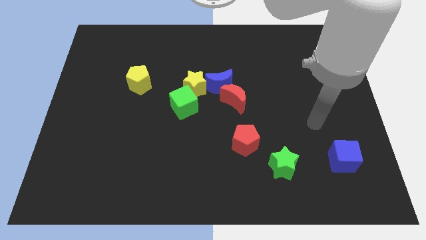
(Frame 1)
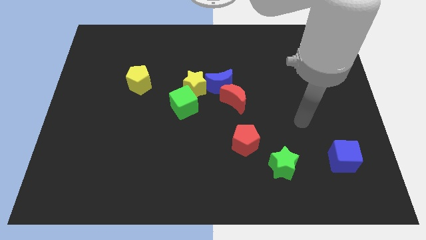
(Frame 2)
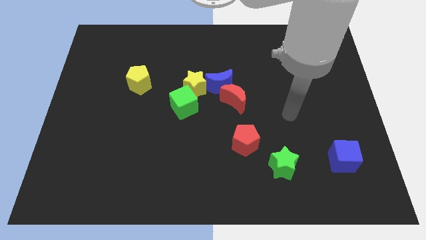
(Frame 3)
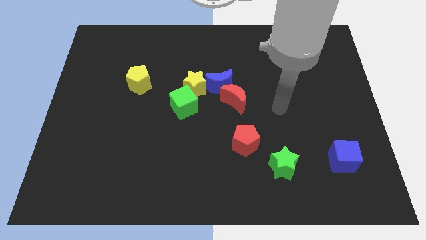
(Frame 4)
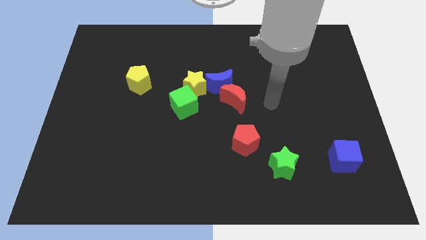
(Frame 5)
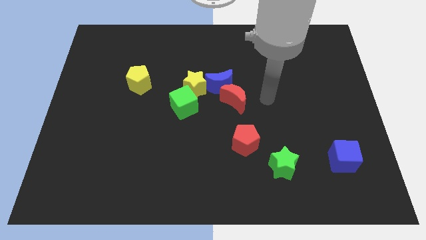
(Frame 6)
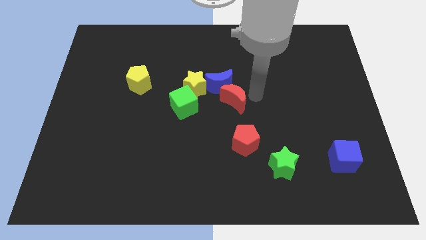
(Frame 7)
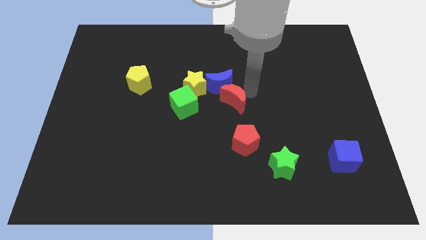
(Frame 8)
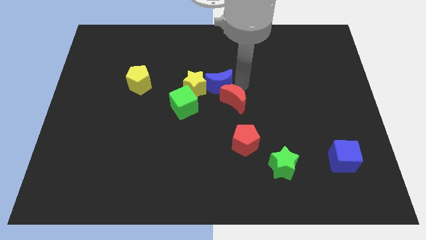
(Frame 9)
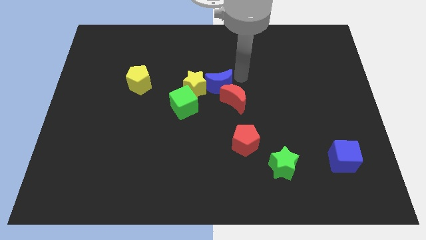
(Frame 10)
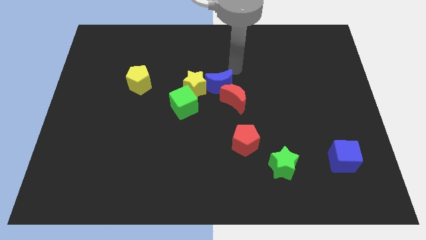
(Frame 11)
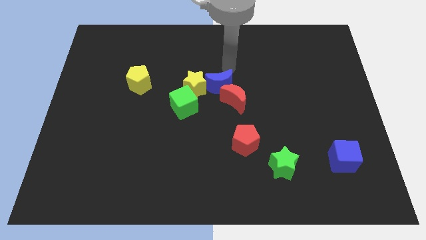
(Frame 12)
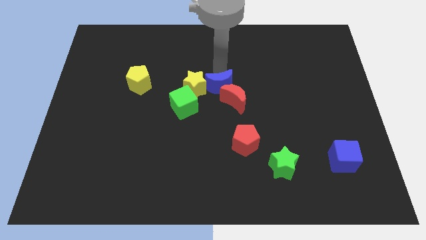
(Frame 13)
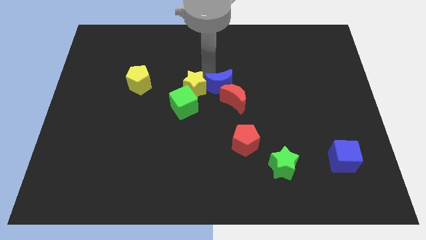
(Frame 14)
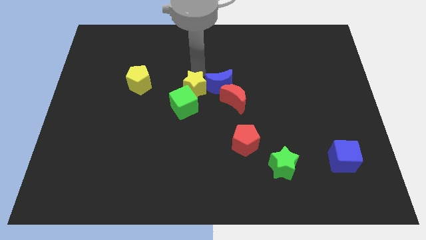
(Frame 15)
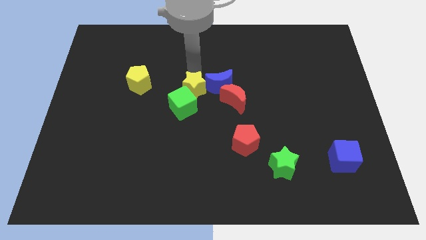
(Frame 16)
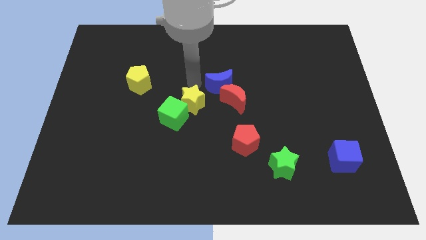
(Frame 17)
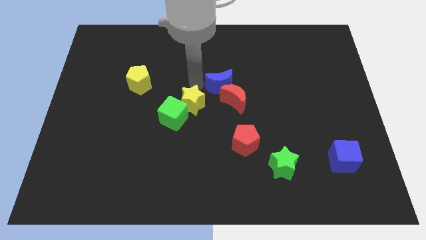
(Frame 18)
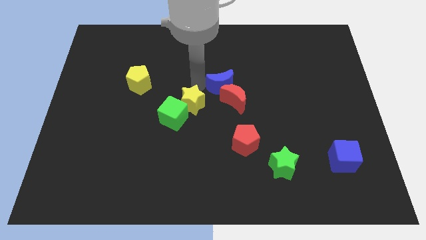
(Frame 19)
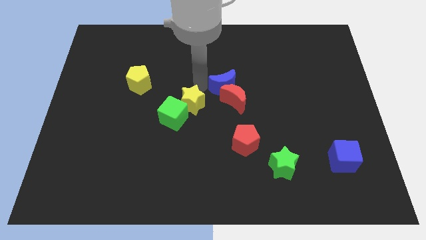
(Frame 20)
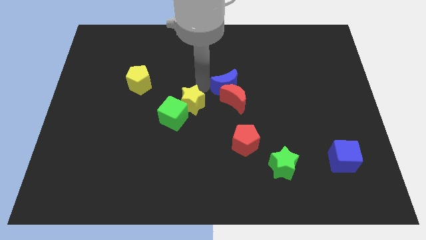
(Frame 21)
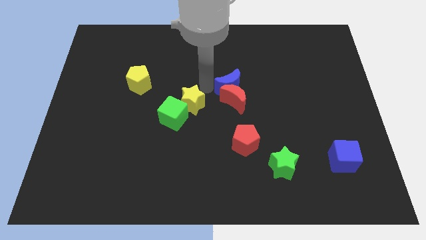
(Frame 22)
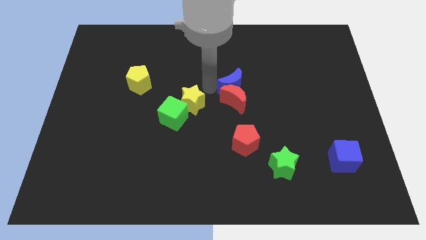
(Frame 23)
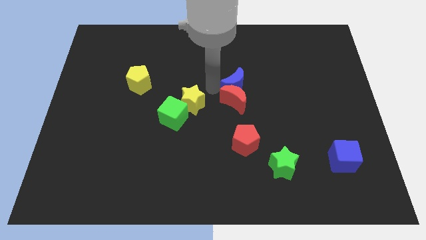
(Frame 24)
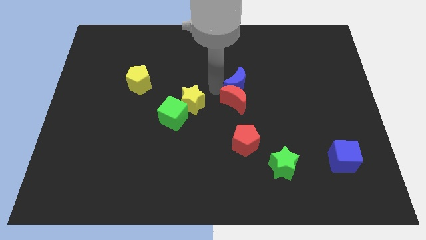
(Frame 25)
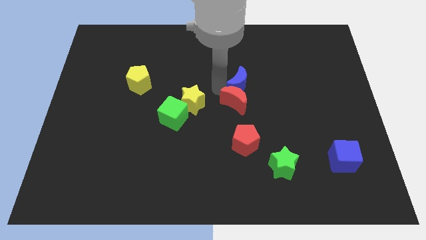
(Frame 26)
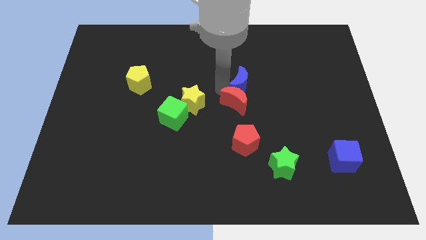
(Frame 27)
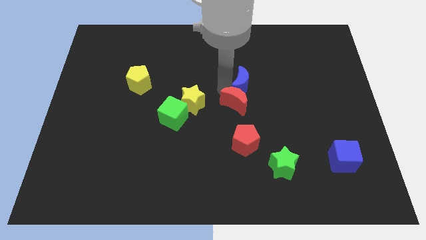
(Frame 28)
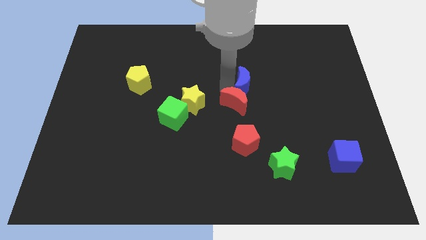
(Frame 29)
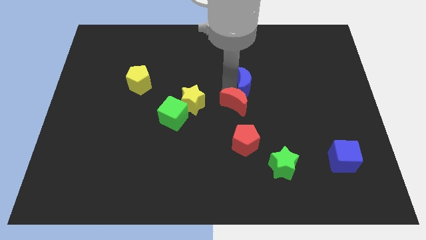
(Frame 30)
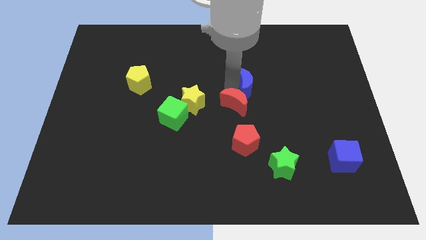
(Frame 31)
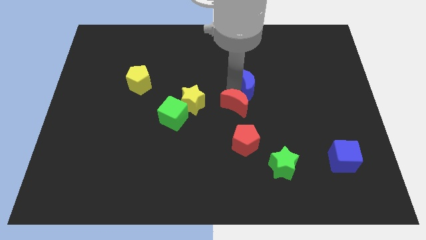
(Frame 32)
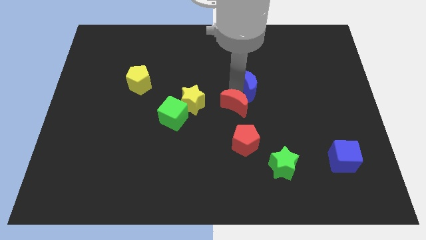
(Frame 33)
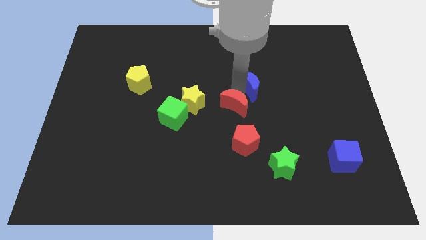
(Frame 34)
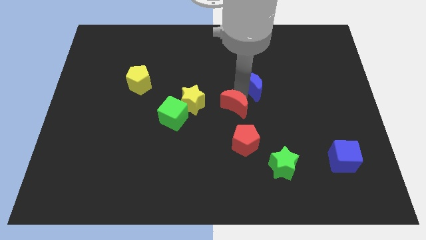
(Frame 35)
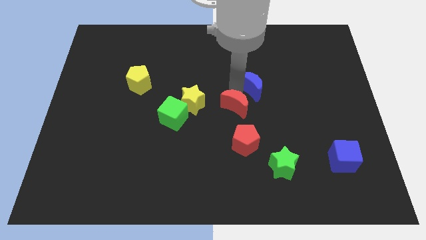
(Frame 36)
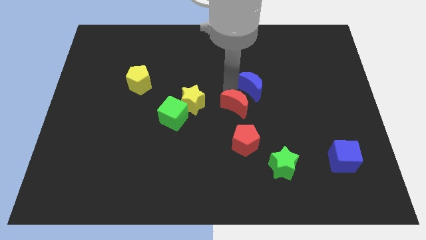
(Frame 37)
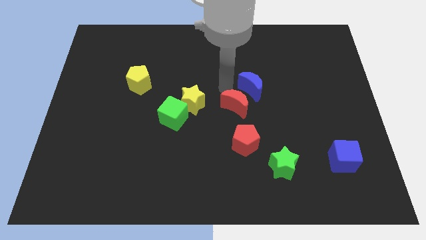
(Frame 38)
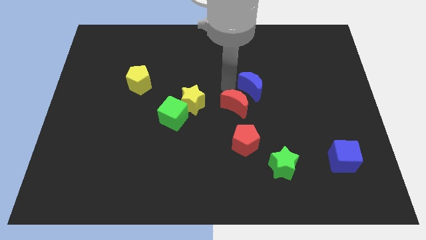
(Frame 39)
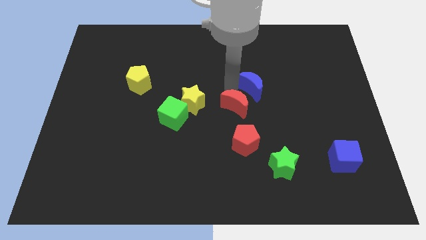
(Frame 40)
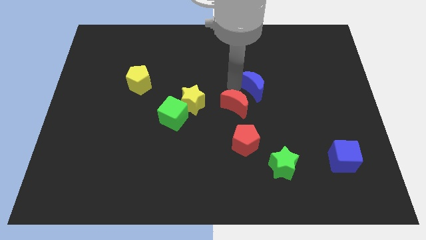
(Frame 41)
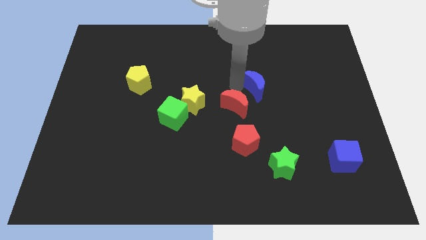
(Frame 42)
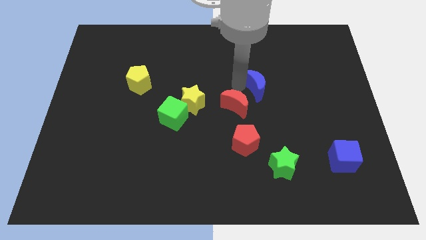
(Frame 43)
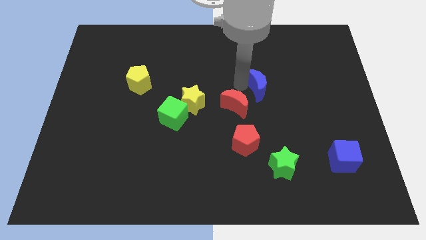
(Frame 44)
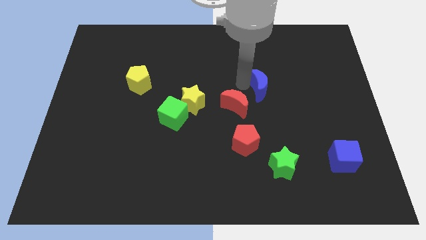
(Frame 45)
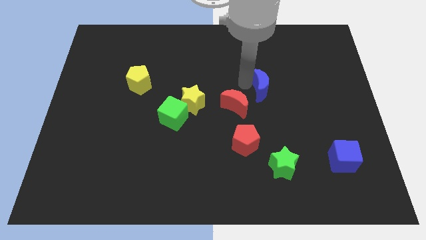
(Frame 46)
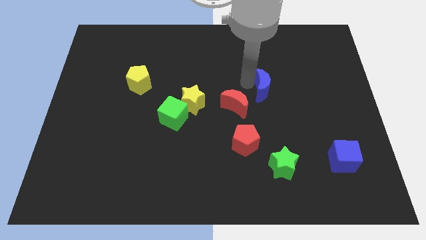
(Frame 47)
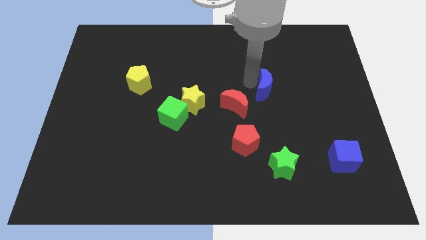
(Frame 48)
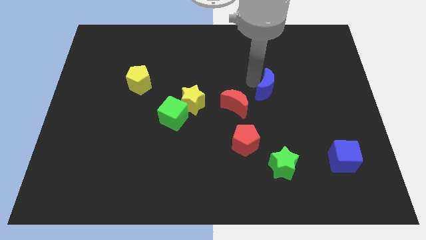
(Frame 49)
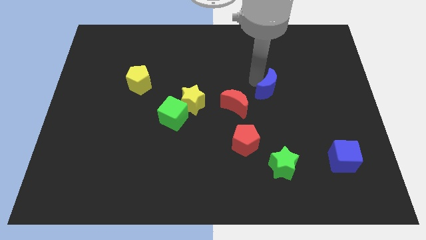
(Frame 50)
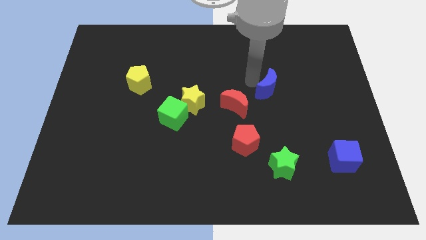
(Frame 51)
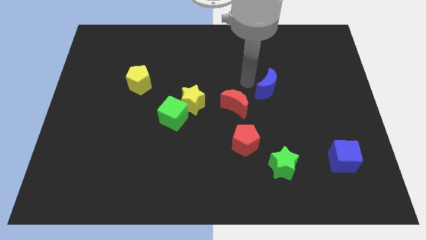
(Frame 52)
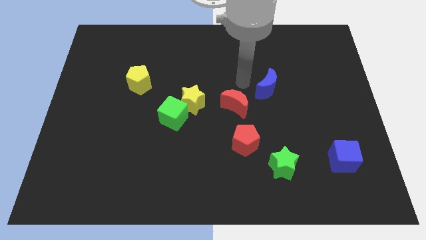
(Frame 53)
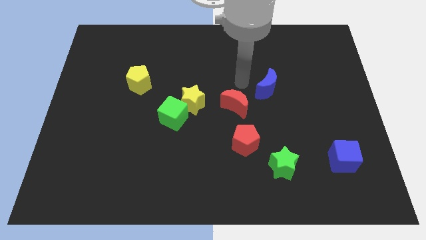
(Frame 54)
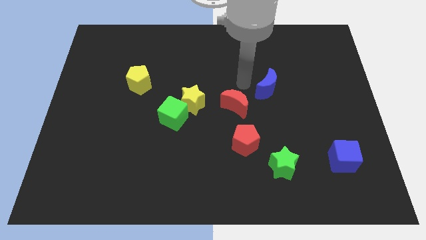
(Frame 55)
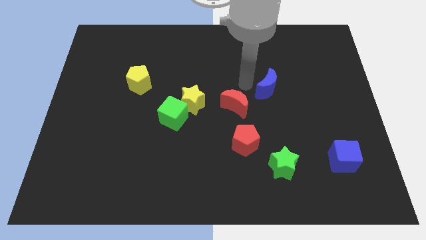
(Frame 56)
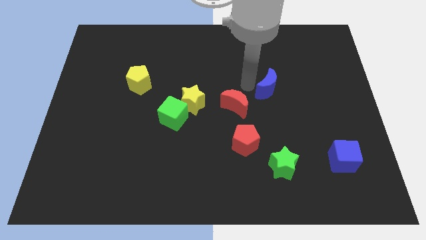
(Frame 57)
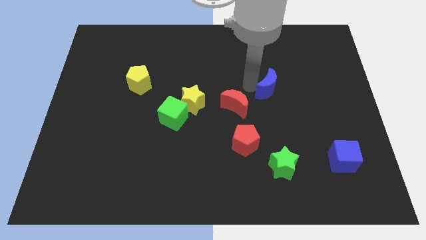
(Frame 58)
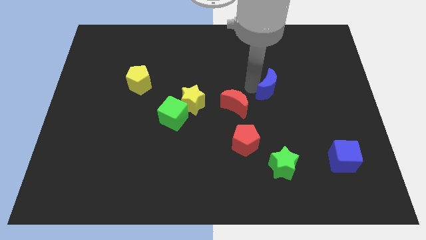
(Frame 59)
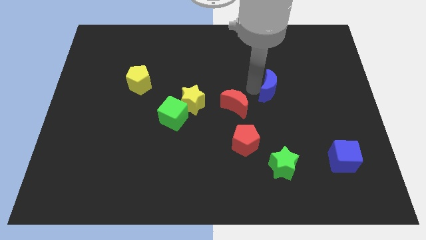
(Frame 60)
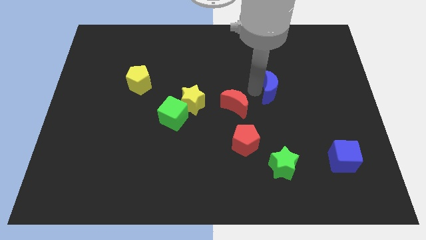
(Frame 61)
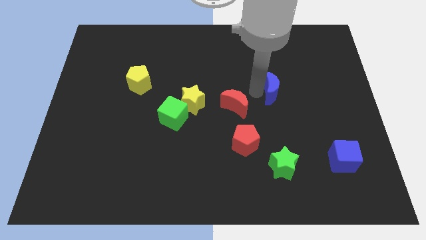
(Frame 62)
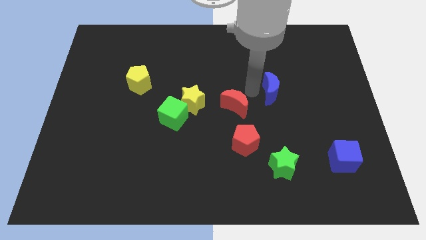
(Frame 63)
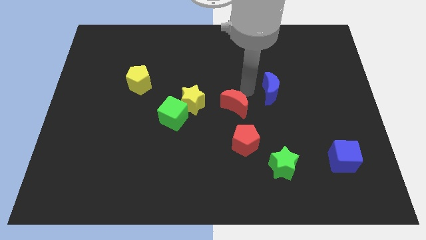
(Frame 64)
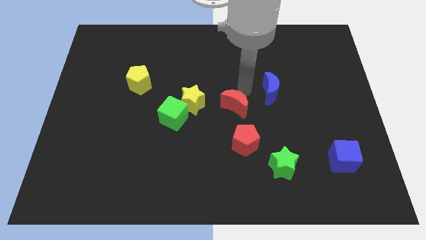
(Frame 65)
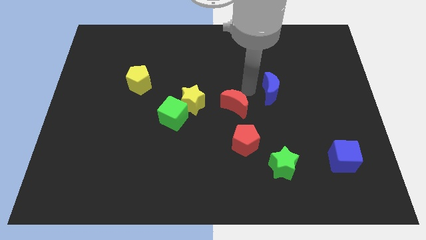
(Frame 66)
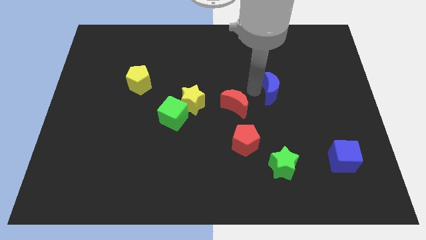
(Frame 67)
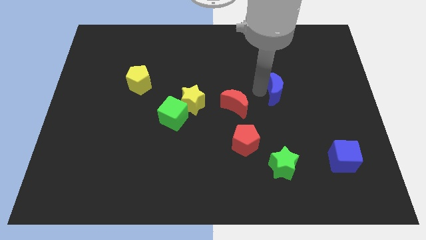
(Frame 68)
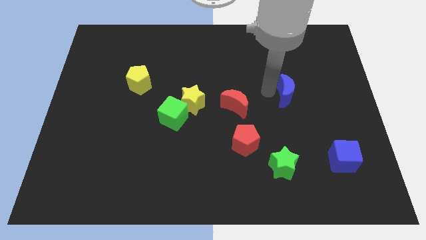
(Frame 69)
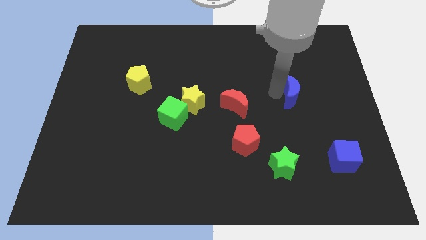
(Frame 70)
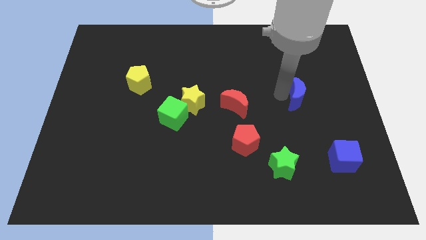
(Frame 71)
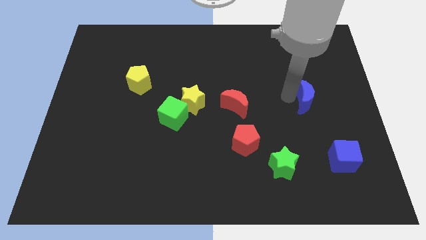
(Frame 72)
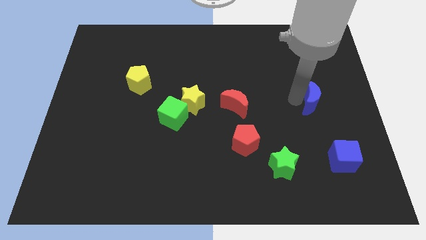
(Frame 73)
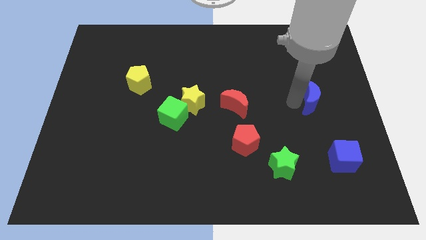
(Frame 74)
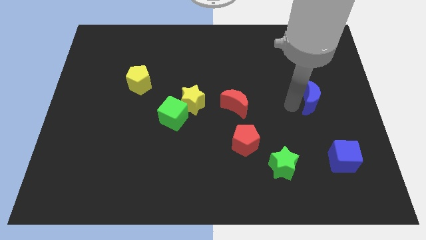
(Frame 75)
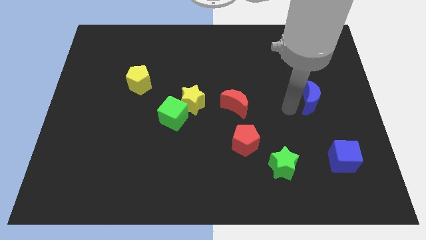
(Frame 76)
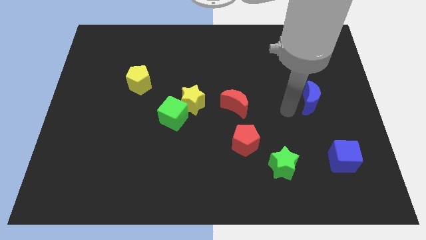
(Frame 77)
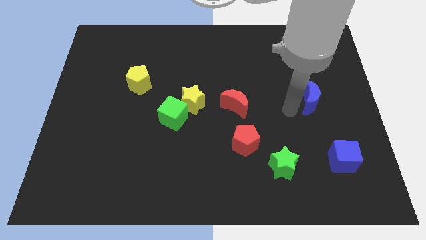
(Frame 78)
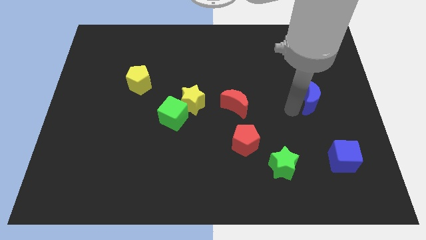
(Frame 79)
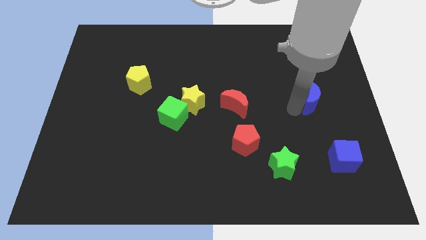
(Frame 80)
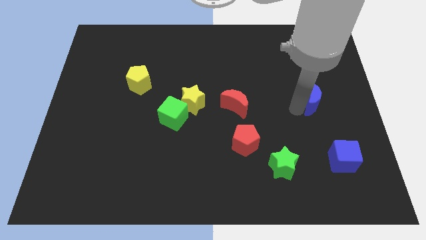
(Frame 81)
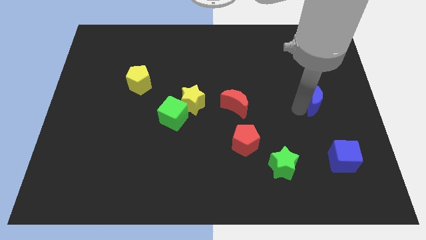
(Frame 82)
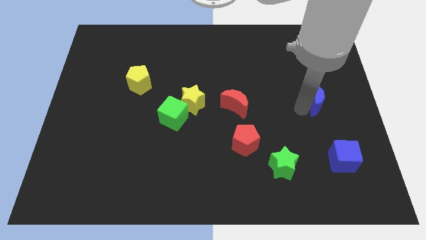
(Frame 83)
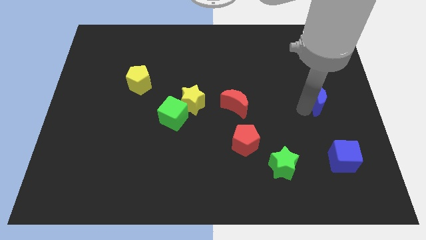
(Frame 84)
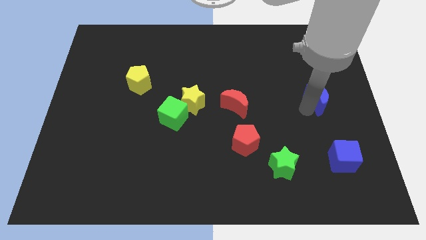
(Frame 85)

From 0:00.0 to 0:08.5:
push the blue moon to the right side
